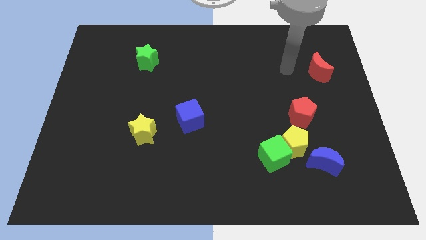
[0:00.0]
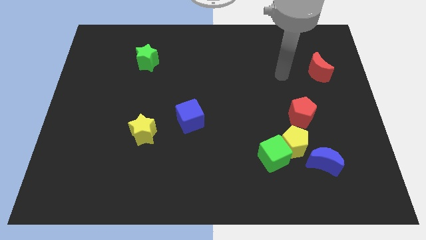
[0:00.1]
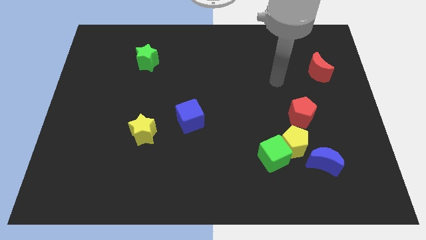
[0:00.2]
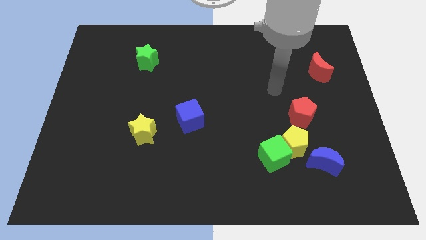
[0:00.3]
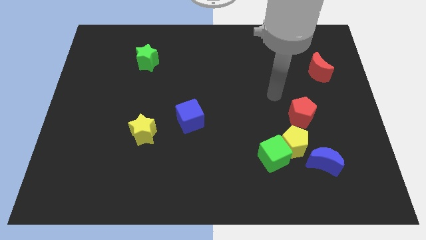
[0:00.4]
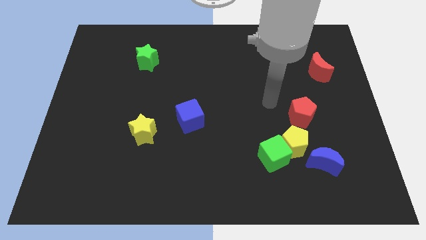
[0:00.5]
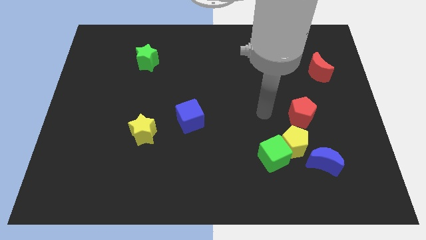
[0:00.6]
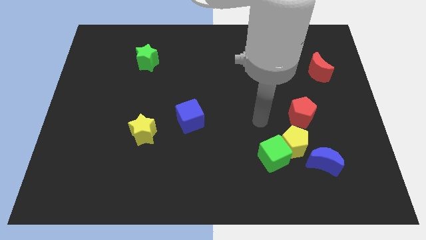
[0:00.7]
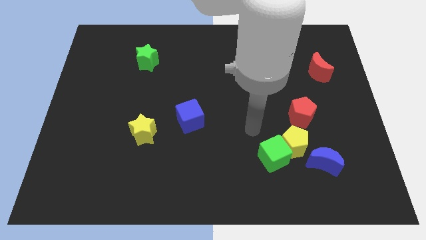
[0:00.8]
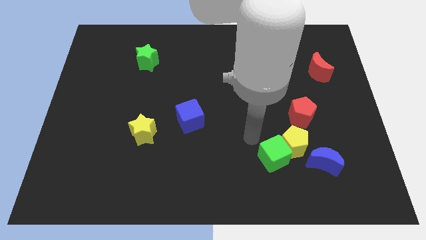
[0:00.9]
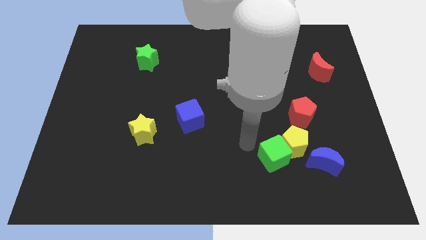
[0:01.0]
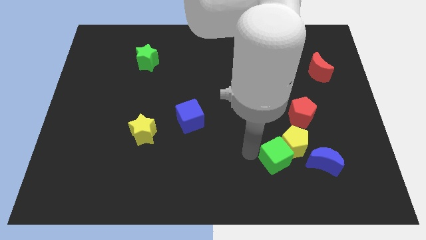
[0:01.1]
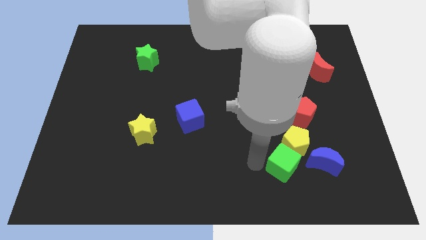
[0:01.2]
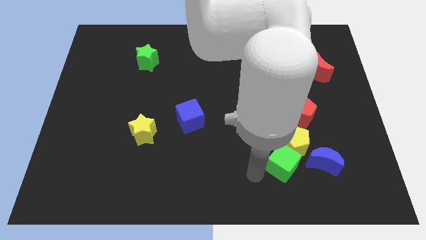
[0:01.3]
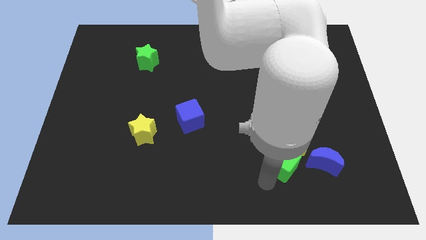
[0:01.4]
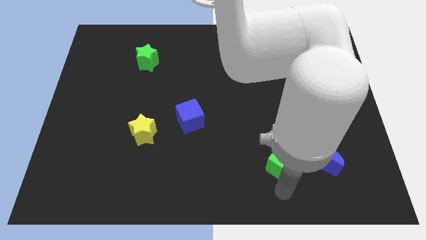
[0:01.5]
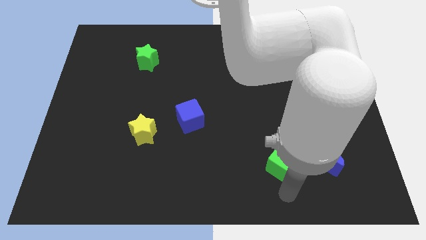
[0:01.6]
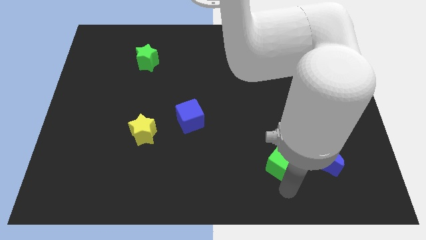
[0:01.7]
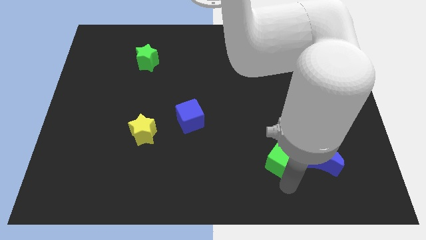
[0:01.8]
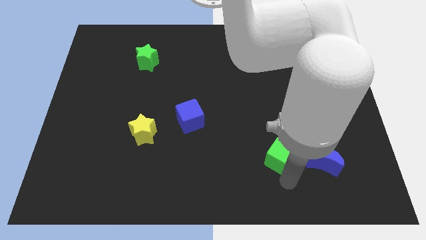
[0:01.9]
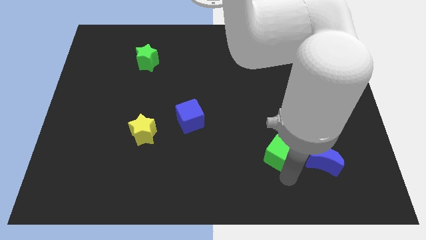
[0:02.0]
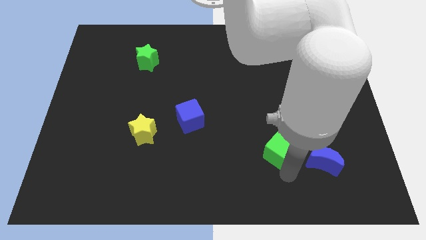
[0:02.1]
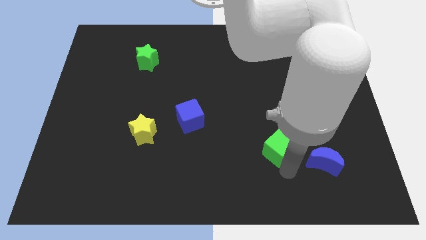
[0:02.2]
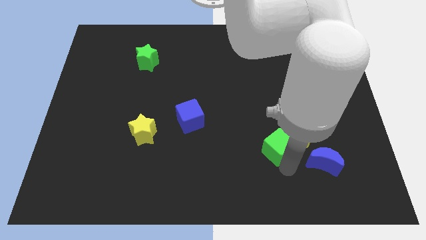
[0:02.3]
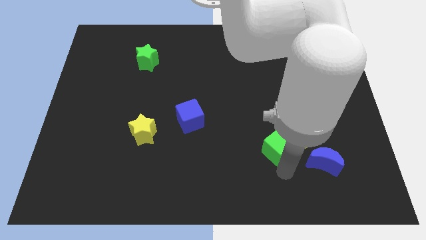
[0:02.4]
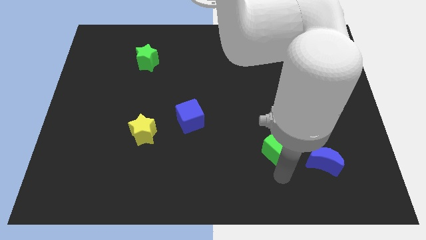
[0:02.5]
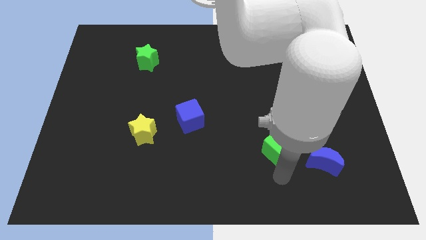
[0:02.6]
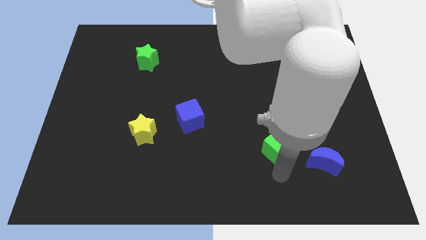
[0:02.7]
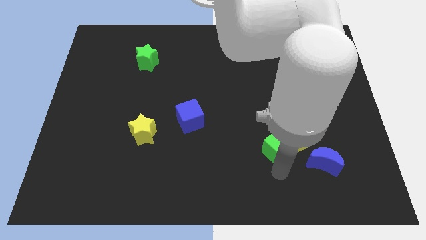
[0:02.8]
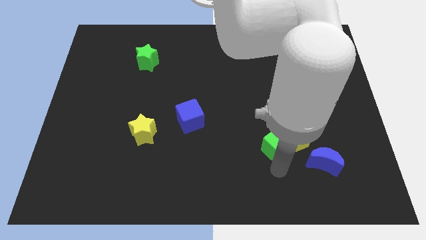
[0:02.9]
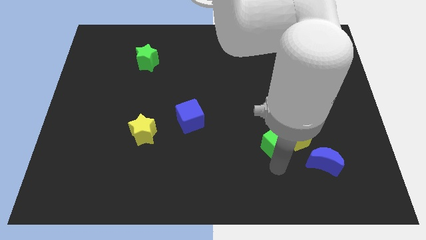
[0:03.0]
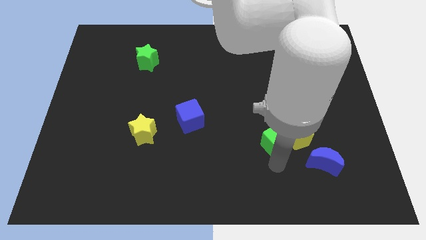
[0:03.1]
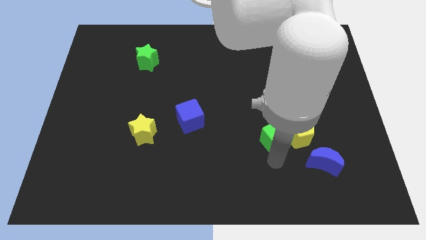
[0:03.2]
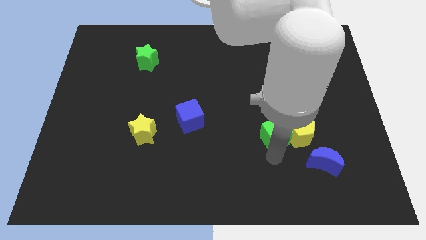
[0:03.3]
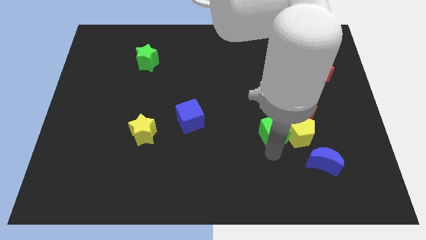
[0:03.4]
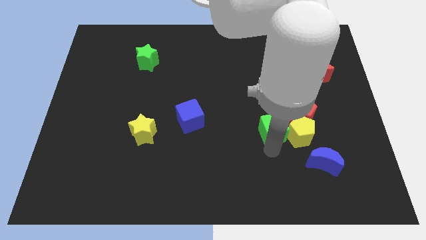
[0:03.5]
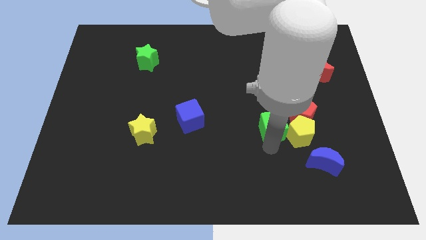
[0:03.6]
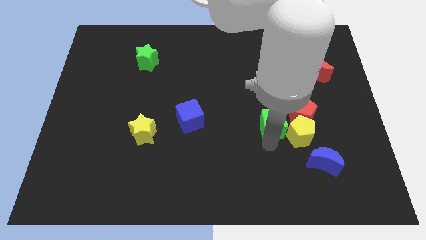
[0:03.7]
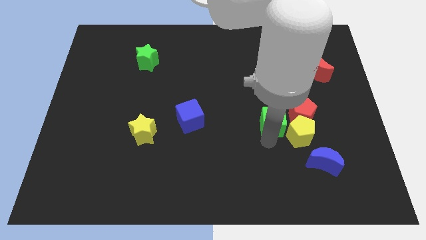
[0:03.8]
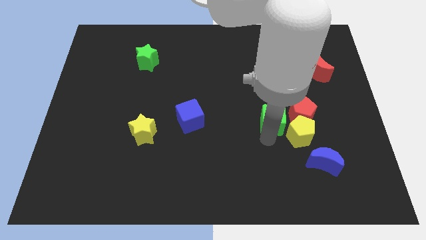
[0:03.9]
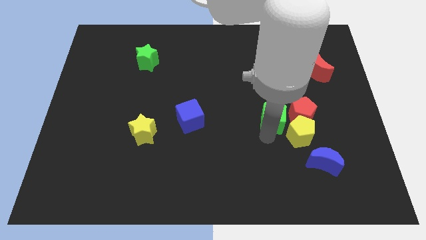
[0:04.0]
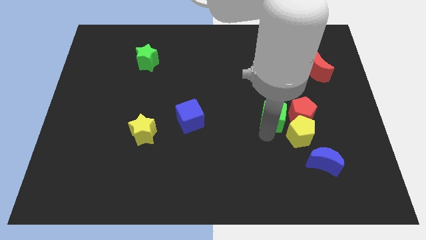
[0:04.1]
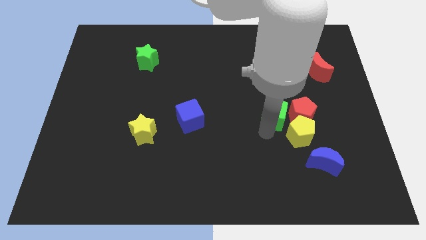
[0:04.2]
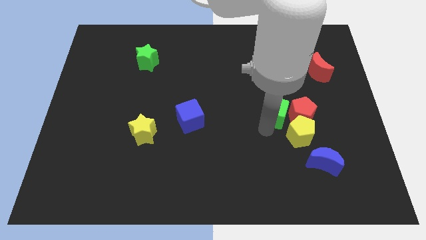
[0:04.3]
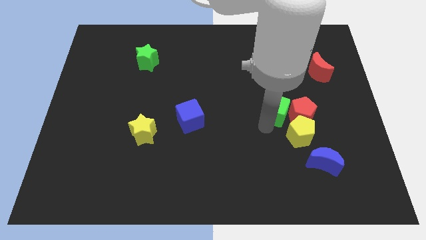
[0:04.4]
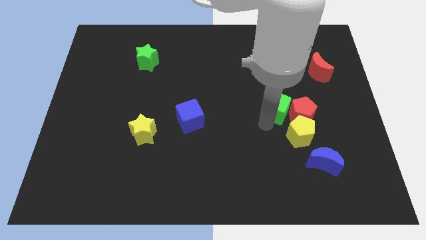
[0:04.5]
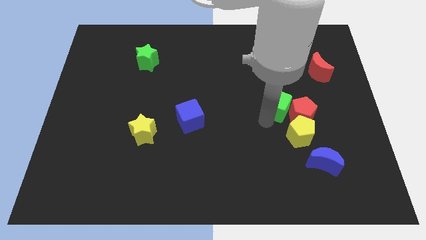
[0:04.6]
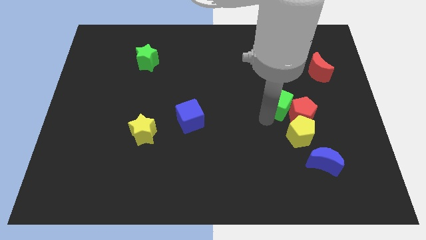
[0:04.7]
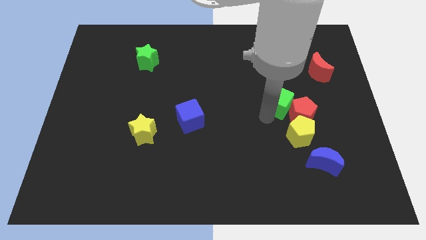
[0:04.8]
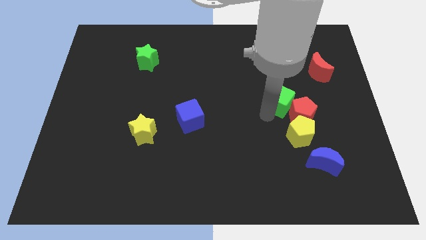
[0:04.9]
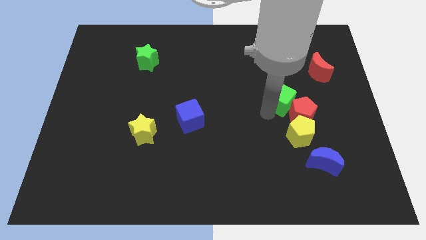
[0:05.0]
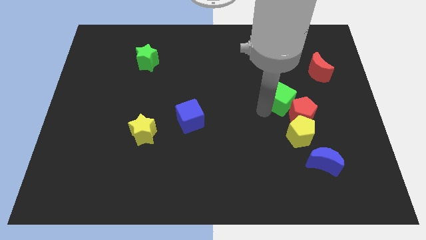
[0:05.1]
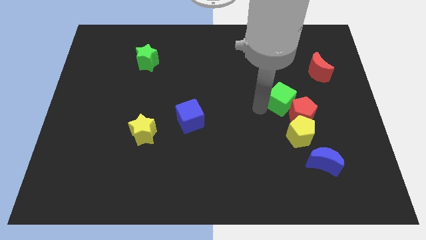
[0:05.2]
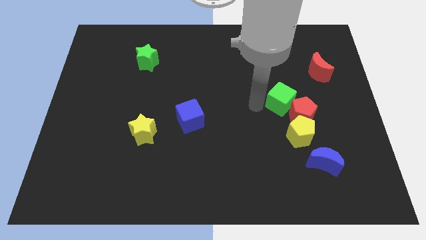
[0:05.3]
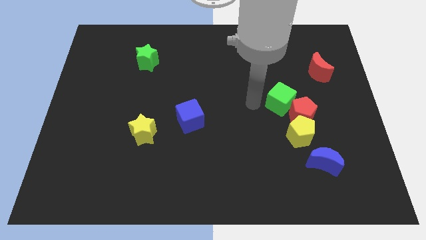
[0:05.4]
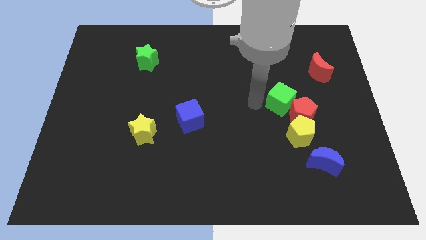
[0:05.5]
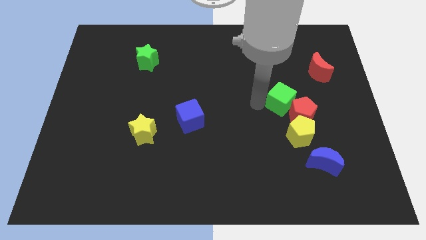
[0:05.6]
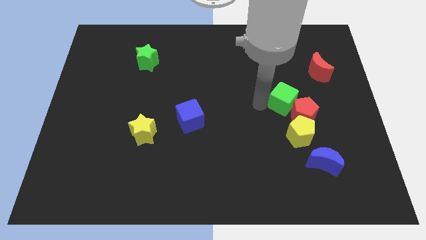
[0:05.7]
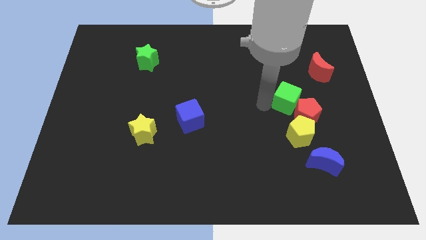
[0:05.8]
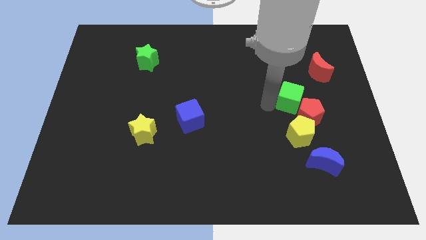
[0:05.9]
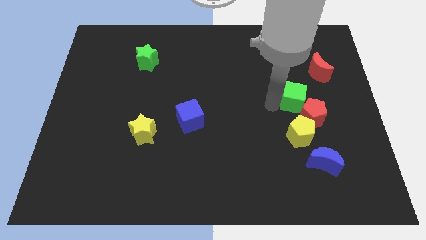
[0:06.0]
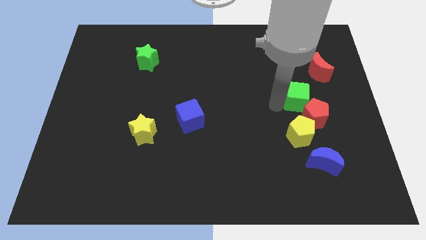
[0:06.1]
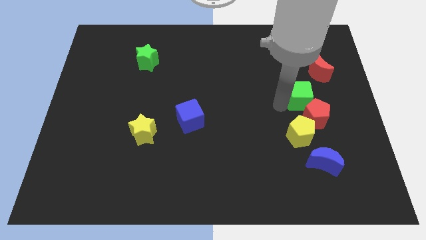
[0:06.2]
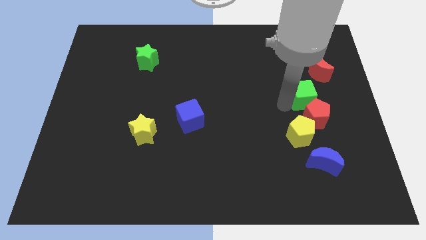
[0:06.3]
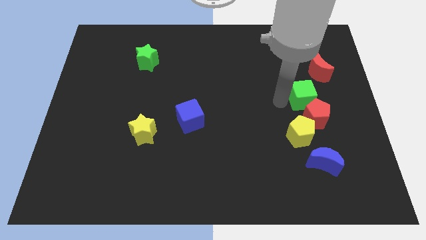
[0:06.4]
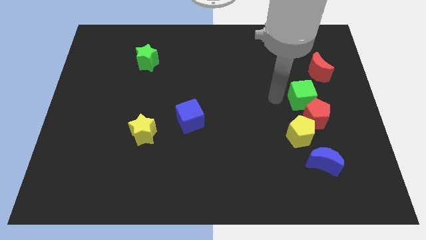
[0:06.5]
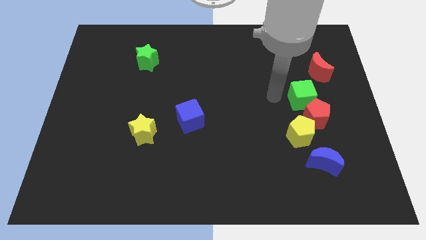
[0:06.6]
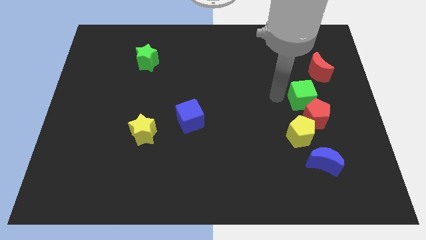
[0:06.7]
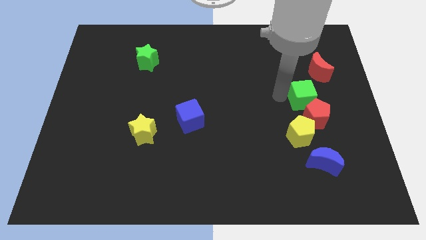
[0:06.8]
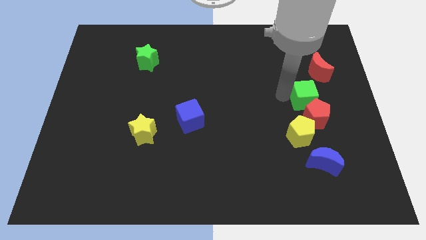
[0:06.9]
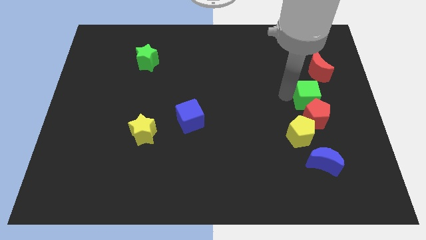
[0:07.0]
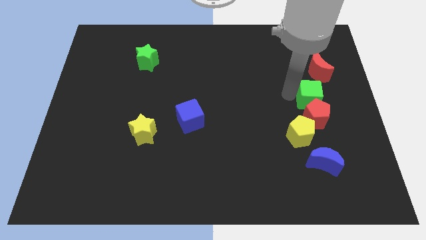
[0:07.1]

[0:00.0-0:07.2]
slide the green cube to the top right side of the red pentagon

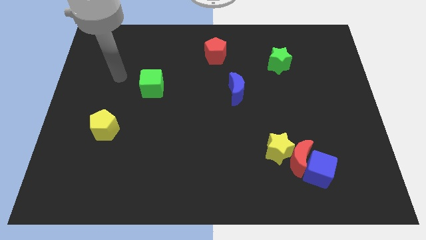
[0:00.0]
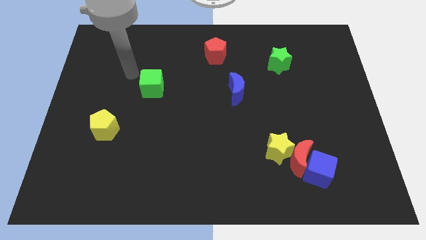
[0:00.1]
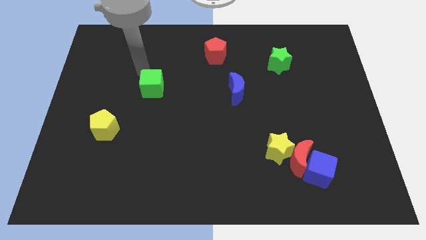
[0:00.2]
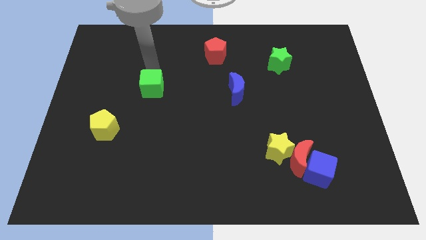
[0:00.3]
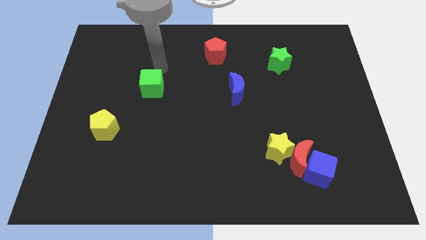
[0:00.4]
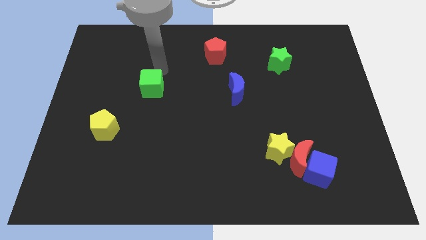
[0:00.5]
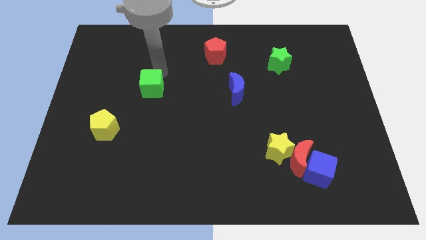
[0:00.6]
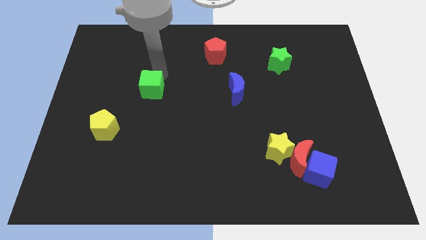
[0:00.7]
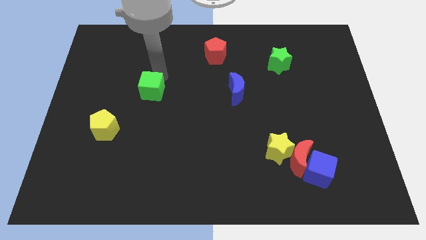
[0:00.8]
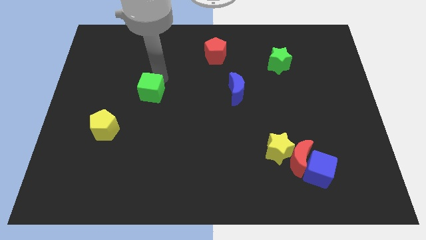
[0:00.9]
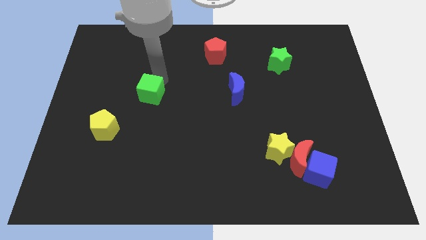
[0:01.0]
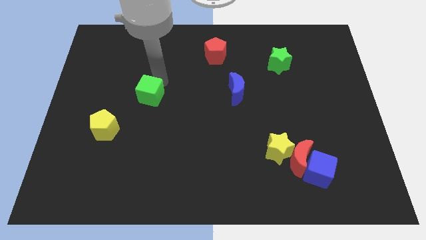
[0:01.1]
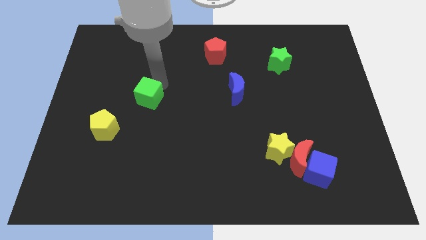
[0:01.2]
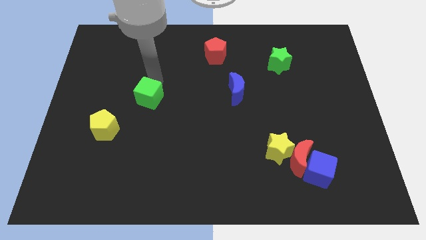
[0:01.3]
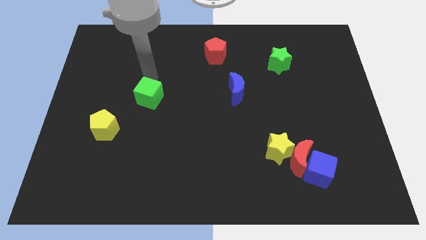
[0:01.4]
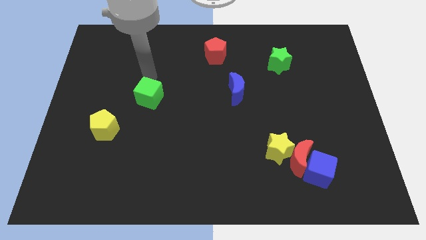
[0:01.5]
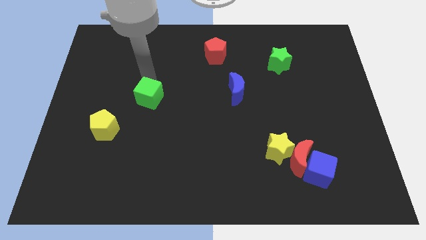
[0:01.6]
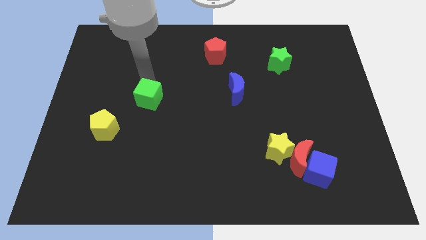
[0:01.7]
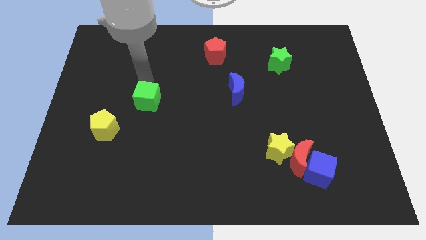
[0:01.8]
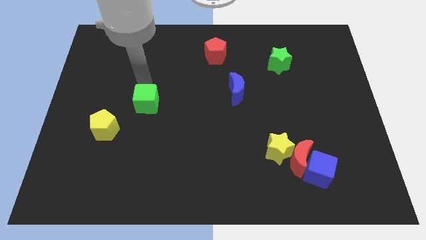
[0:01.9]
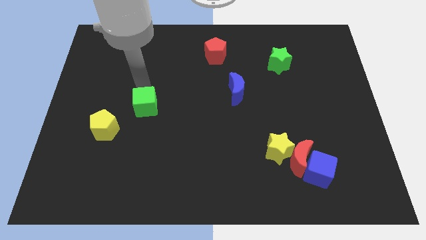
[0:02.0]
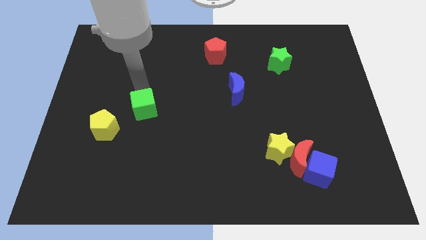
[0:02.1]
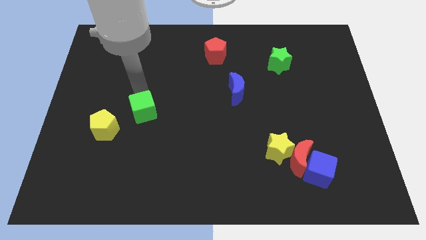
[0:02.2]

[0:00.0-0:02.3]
slide the green cube just right of the yellow pentagon
